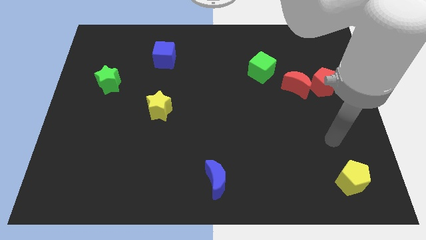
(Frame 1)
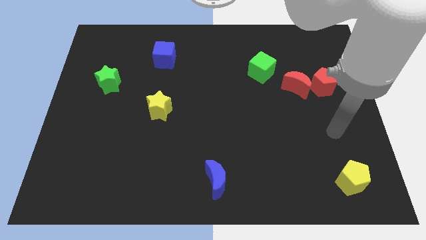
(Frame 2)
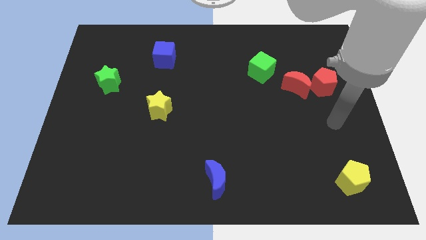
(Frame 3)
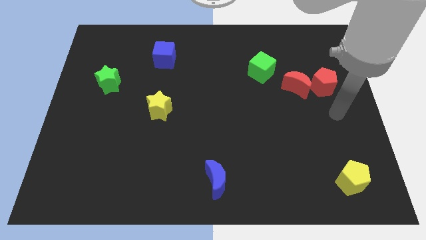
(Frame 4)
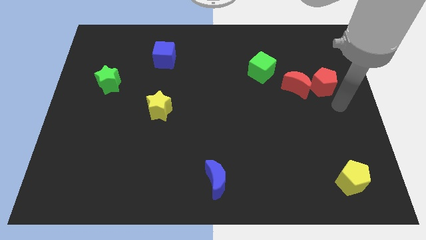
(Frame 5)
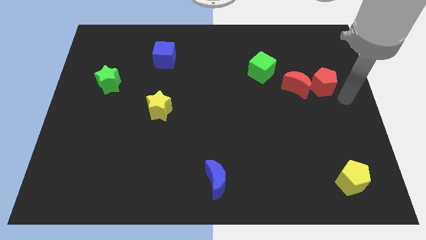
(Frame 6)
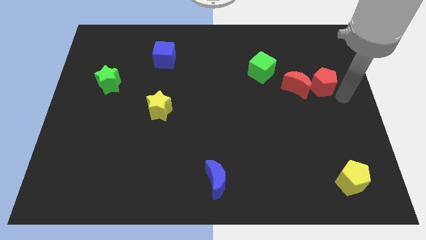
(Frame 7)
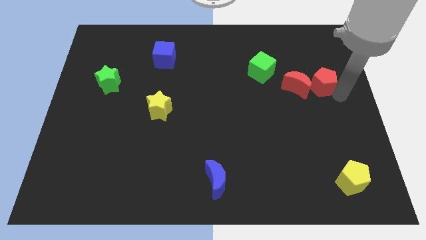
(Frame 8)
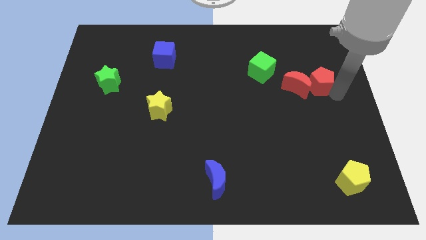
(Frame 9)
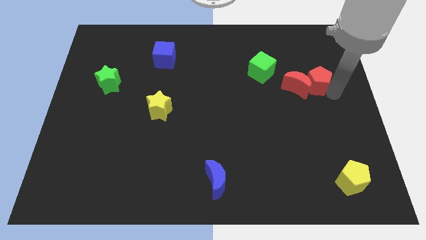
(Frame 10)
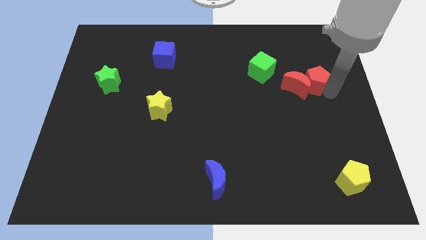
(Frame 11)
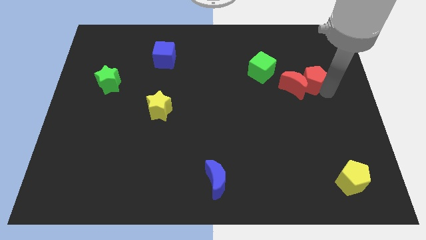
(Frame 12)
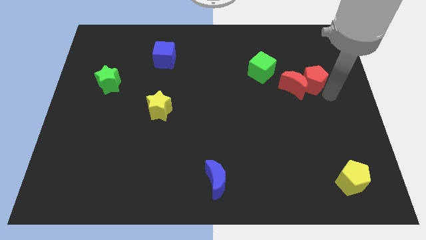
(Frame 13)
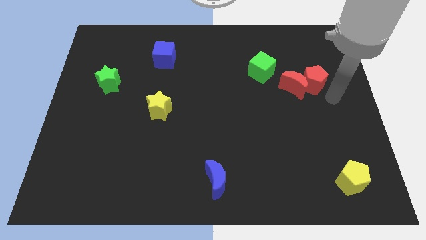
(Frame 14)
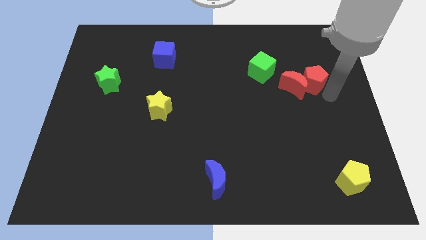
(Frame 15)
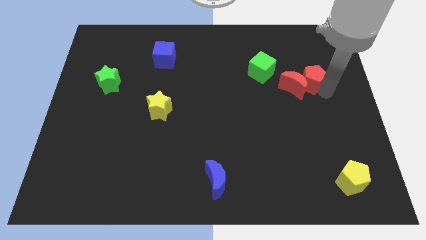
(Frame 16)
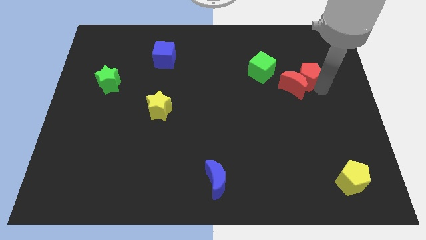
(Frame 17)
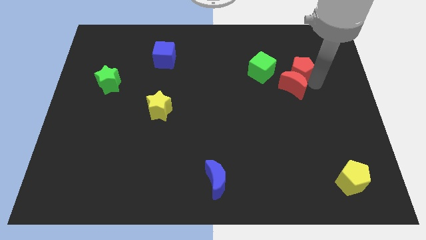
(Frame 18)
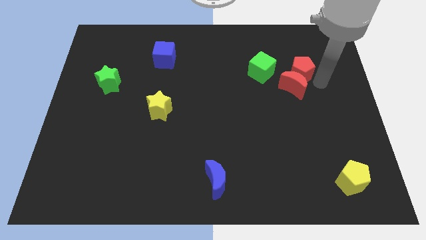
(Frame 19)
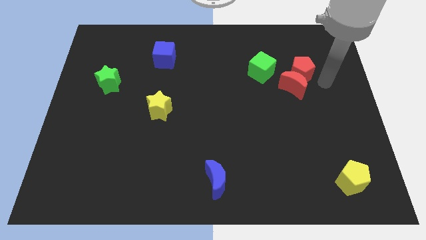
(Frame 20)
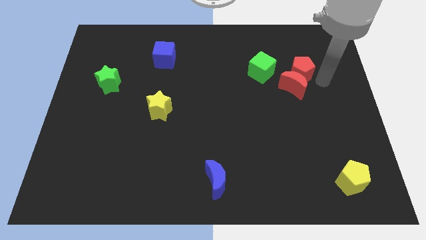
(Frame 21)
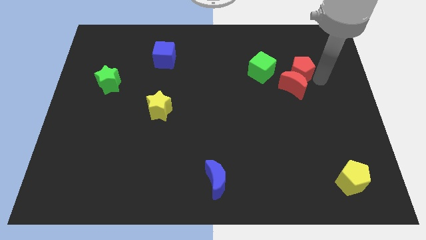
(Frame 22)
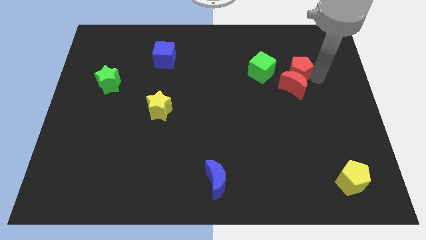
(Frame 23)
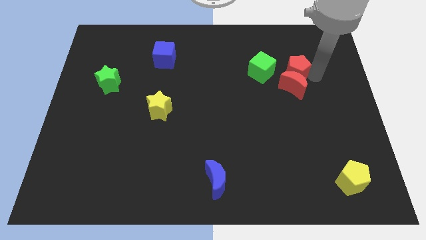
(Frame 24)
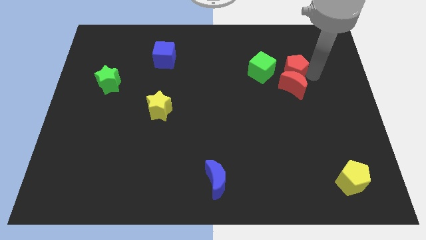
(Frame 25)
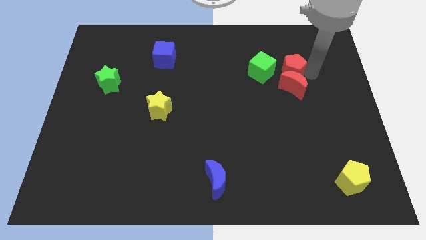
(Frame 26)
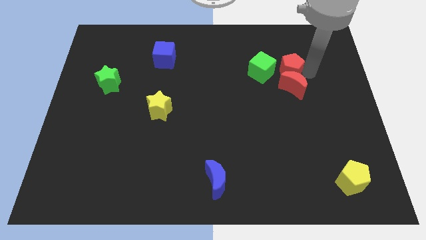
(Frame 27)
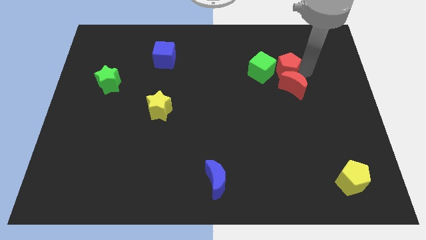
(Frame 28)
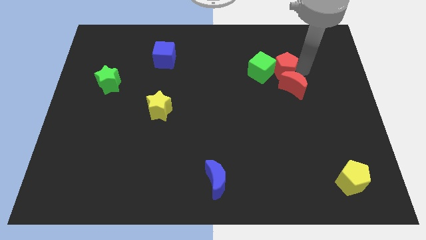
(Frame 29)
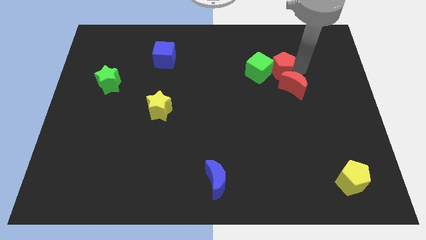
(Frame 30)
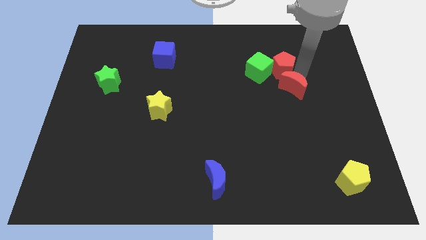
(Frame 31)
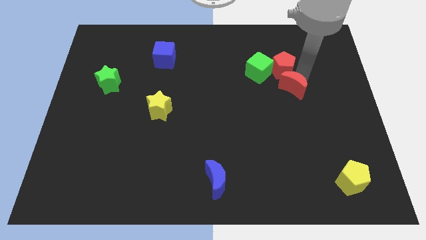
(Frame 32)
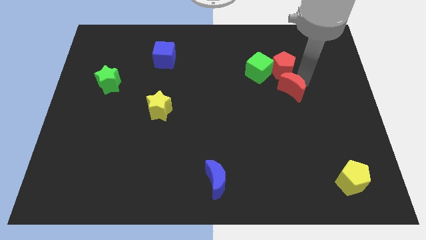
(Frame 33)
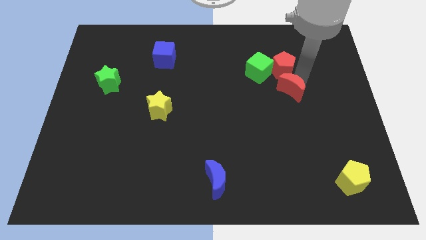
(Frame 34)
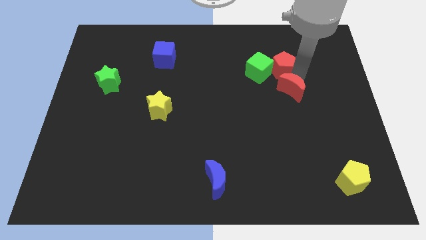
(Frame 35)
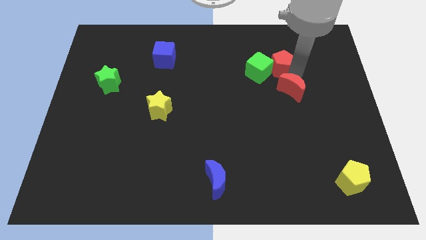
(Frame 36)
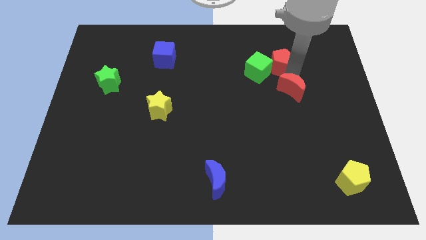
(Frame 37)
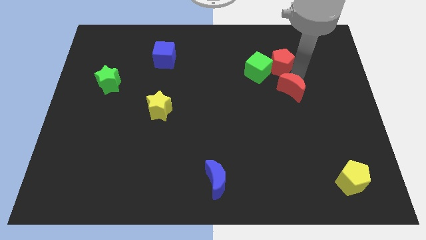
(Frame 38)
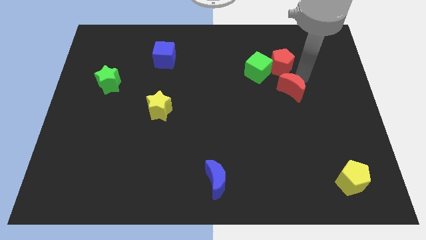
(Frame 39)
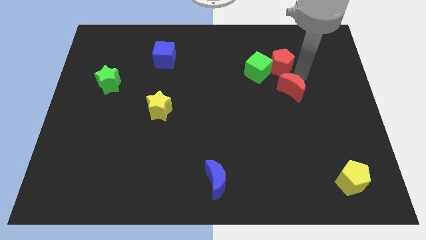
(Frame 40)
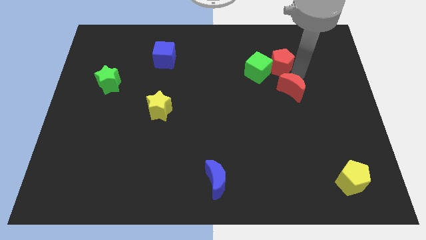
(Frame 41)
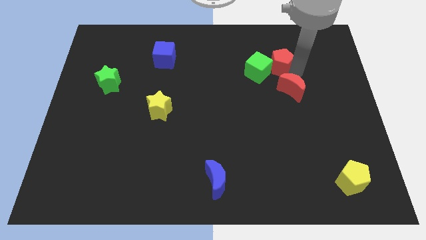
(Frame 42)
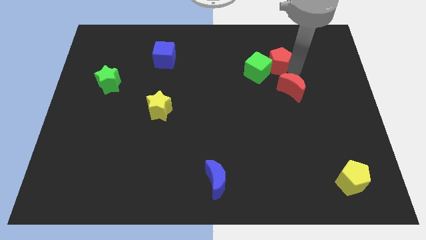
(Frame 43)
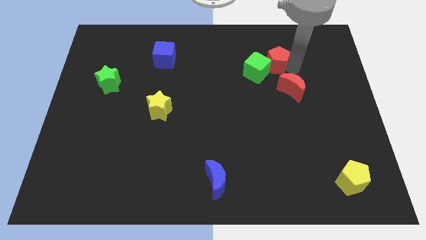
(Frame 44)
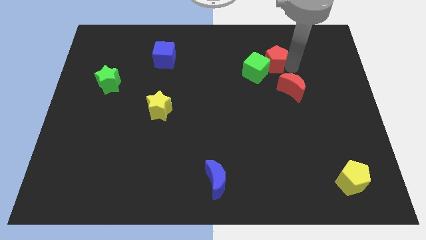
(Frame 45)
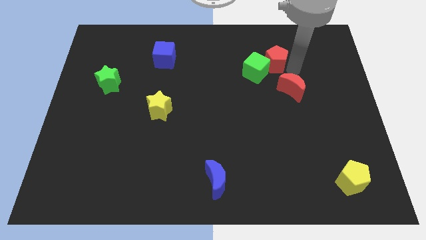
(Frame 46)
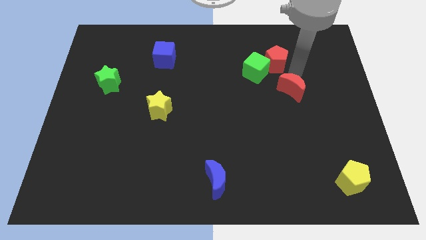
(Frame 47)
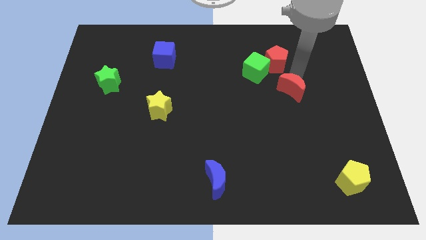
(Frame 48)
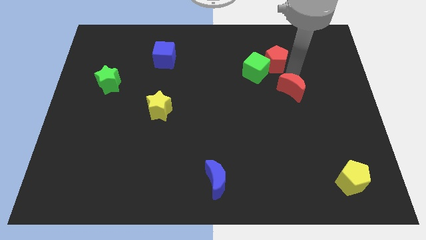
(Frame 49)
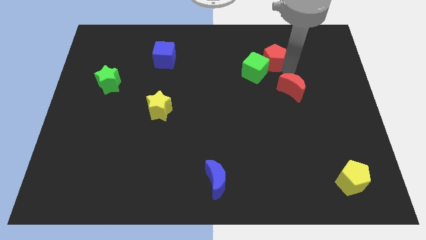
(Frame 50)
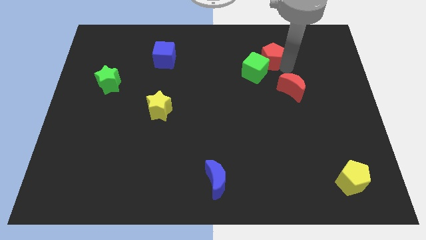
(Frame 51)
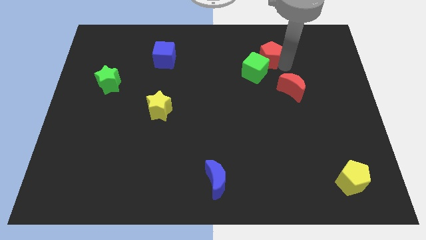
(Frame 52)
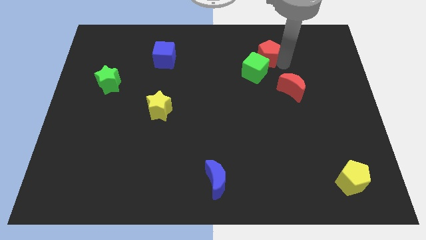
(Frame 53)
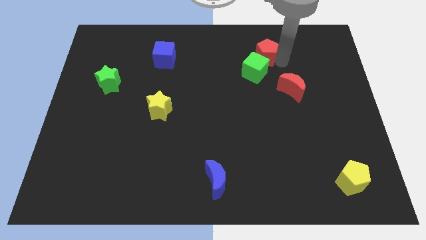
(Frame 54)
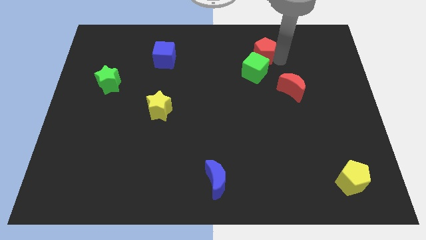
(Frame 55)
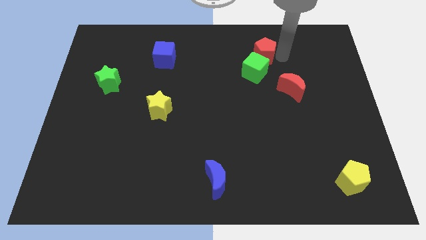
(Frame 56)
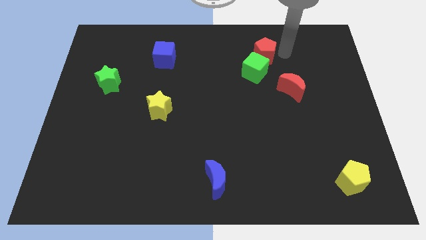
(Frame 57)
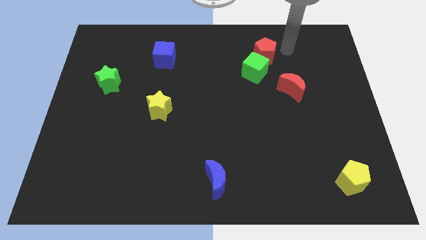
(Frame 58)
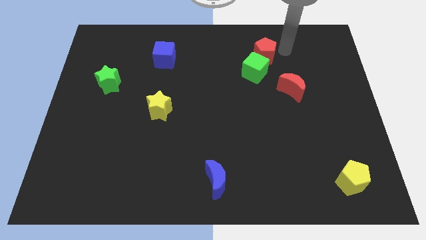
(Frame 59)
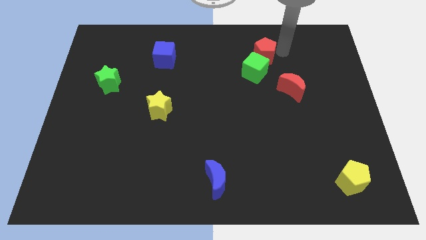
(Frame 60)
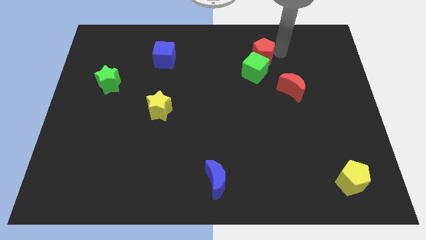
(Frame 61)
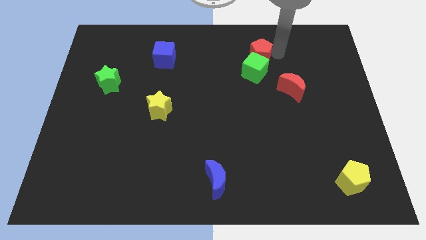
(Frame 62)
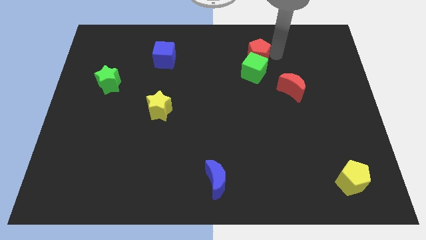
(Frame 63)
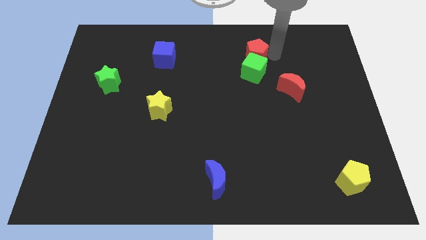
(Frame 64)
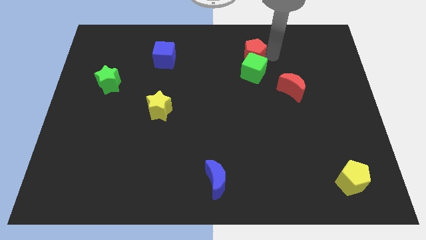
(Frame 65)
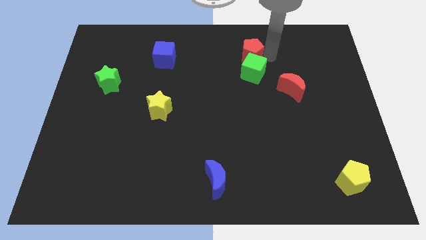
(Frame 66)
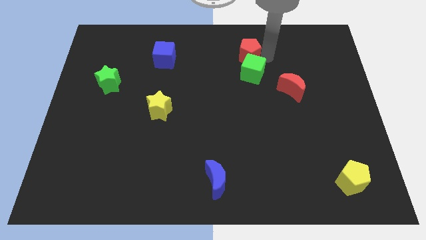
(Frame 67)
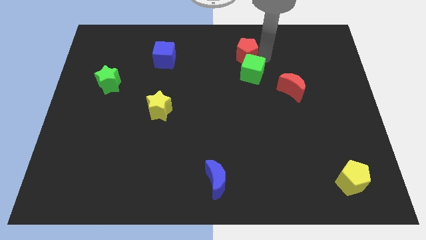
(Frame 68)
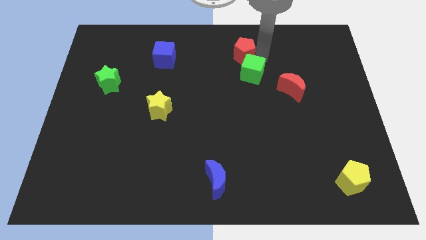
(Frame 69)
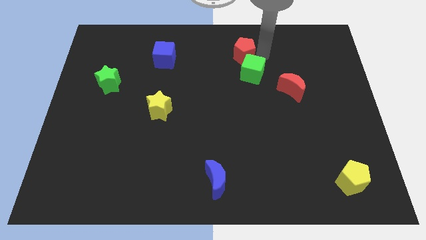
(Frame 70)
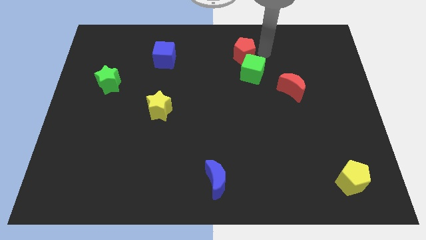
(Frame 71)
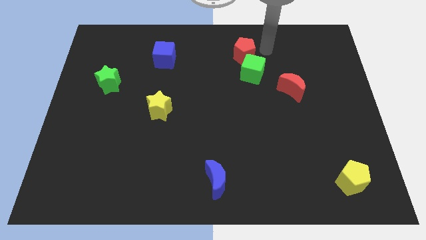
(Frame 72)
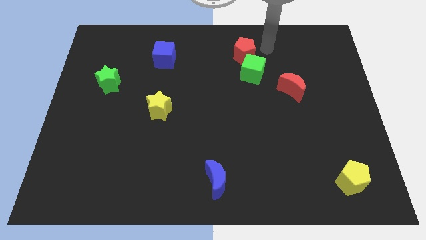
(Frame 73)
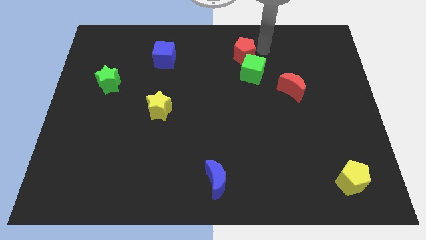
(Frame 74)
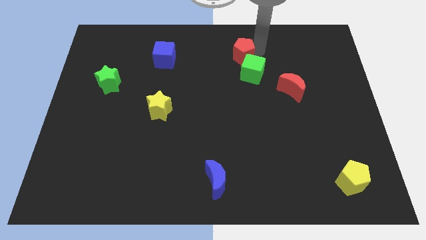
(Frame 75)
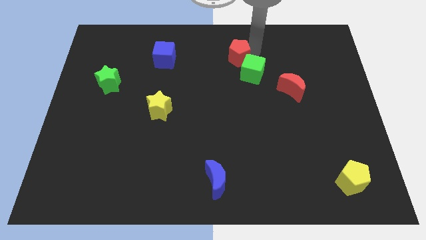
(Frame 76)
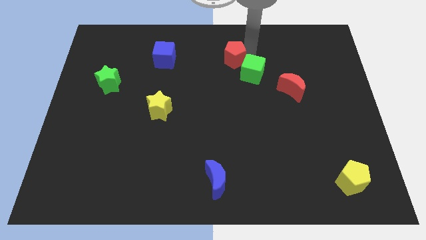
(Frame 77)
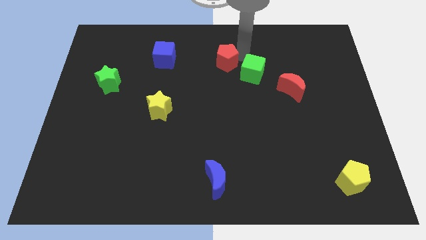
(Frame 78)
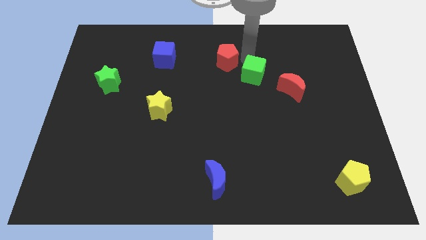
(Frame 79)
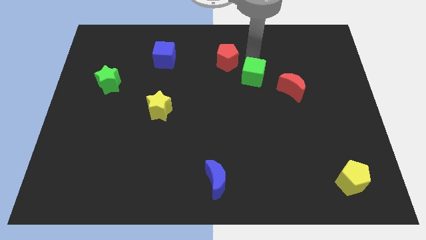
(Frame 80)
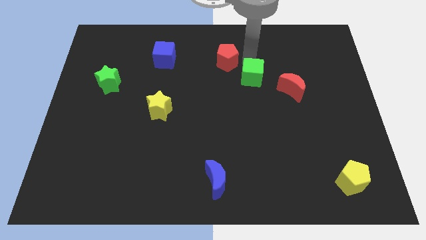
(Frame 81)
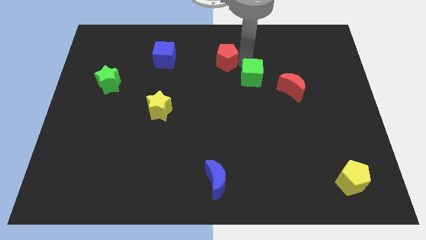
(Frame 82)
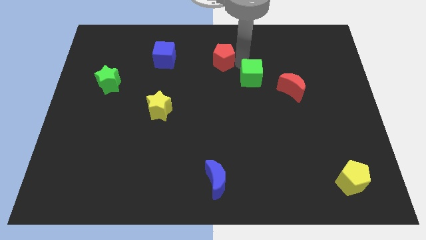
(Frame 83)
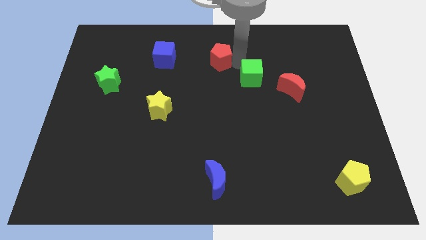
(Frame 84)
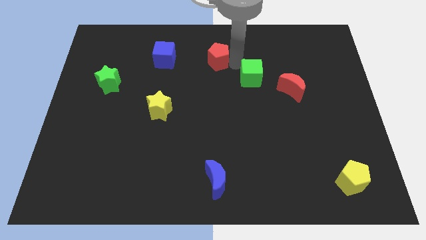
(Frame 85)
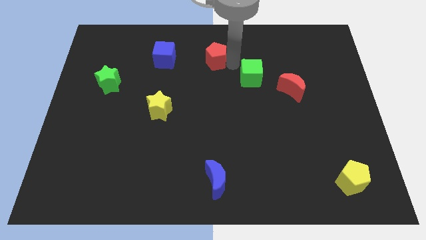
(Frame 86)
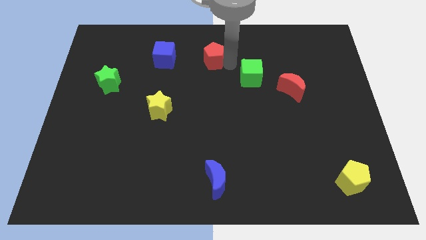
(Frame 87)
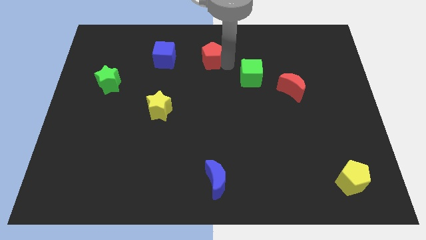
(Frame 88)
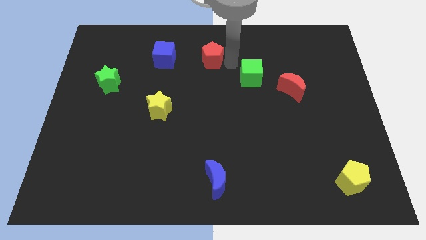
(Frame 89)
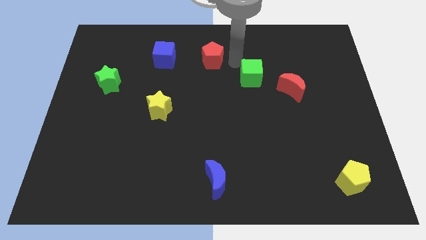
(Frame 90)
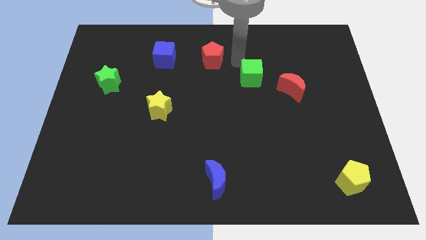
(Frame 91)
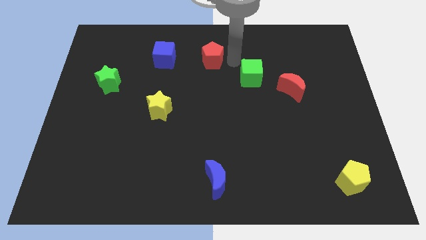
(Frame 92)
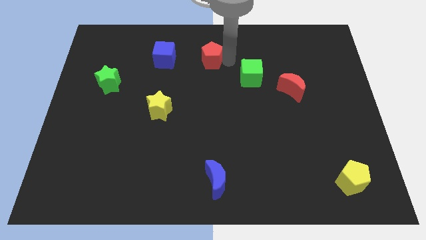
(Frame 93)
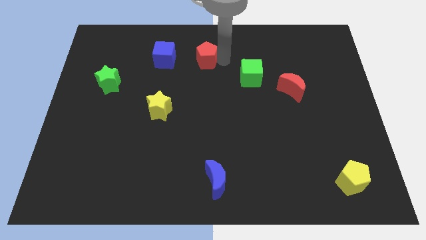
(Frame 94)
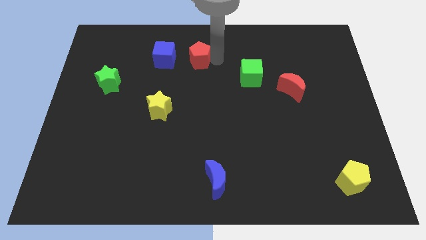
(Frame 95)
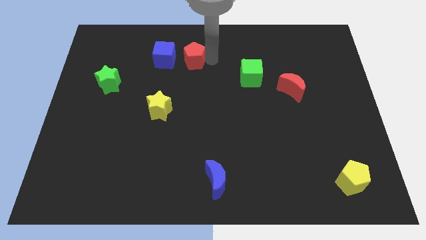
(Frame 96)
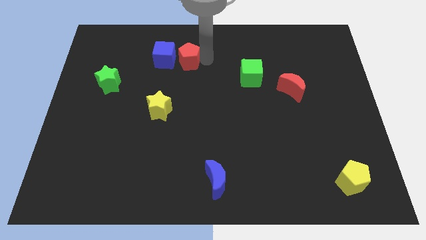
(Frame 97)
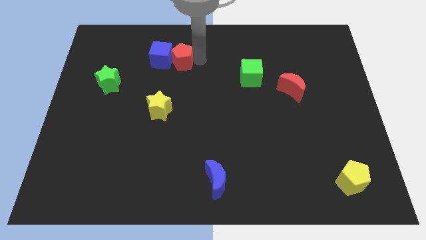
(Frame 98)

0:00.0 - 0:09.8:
move the red pentagon close to the blue cube
